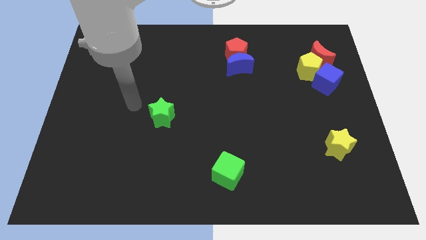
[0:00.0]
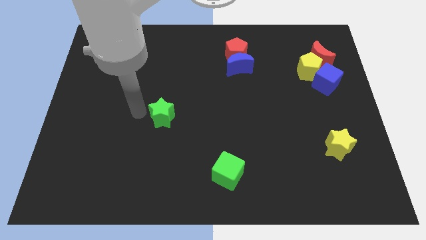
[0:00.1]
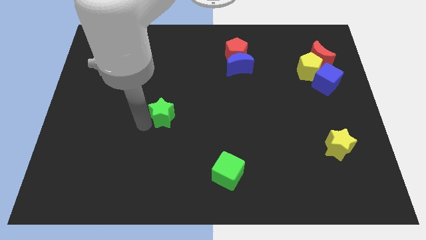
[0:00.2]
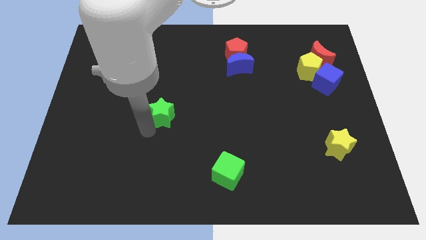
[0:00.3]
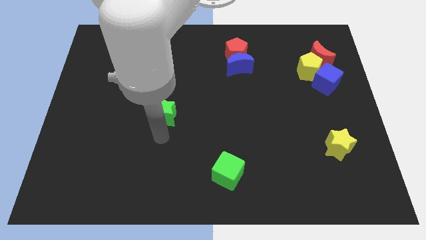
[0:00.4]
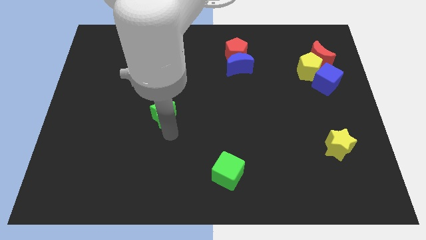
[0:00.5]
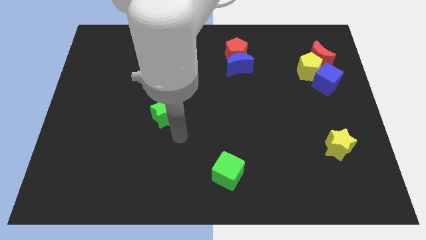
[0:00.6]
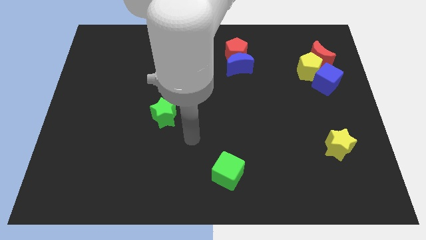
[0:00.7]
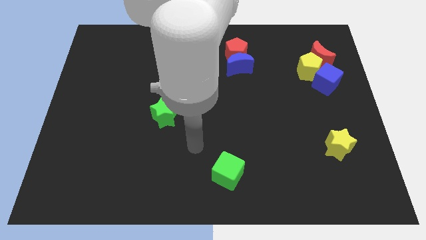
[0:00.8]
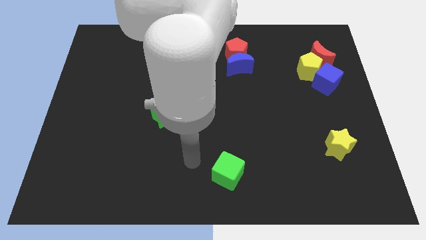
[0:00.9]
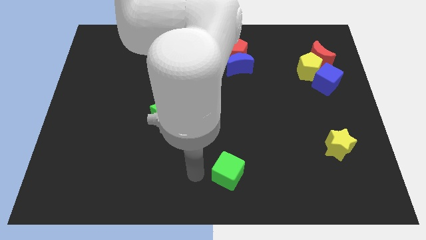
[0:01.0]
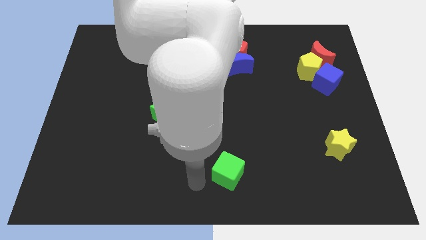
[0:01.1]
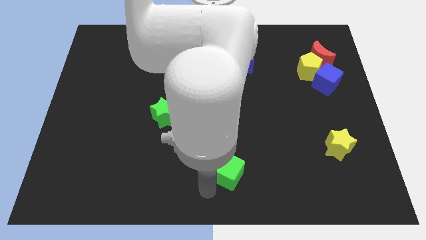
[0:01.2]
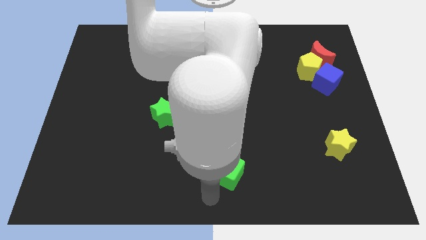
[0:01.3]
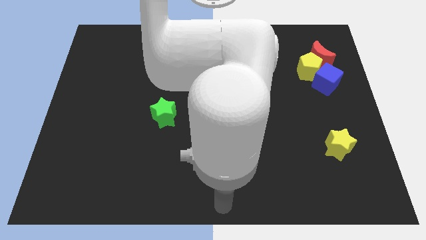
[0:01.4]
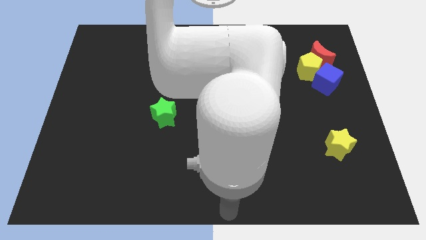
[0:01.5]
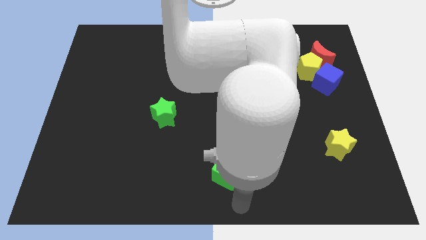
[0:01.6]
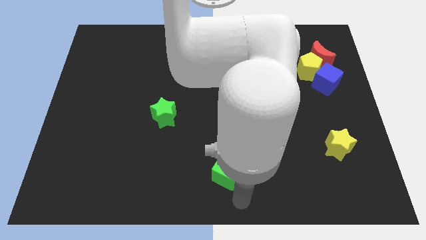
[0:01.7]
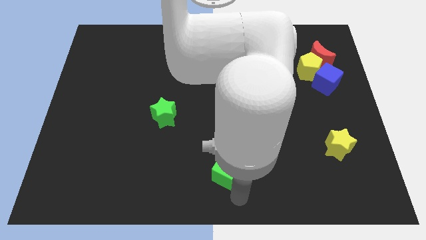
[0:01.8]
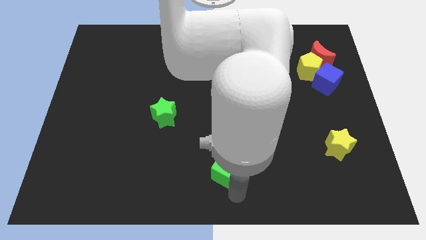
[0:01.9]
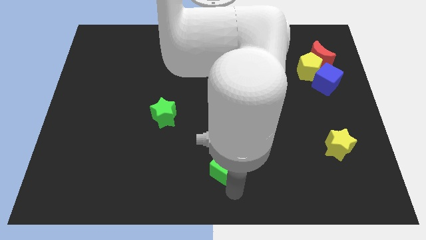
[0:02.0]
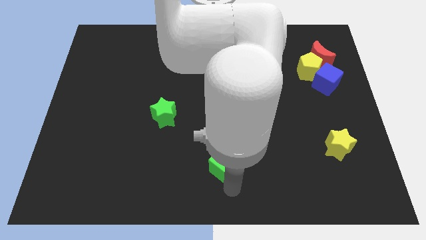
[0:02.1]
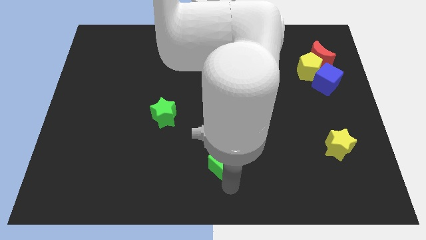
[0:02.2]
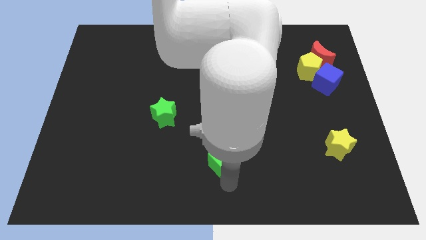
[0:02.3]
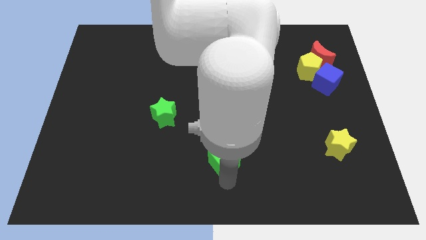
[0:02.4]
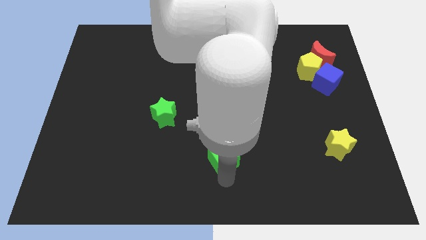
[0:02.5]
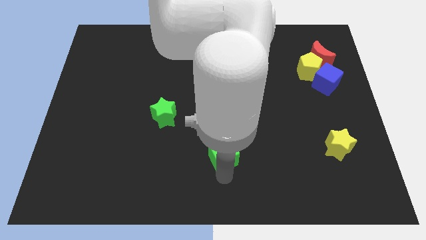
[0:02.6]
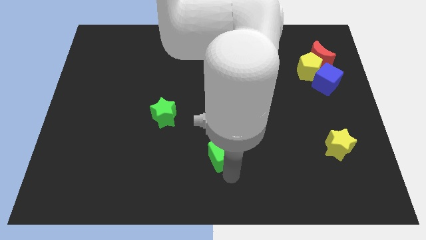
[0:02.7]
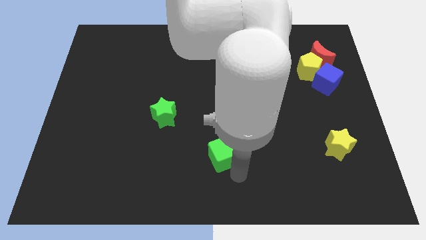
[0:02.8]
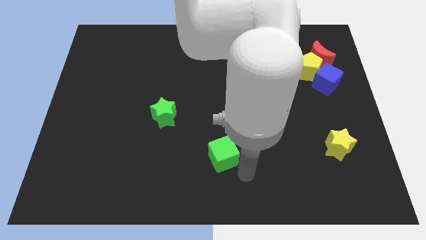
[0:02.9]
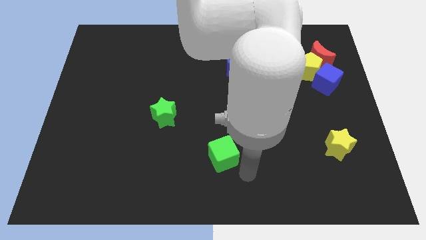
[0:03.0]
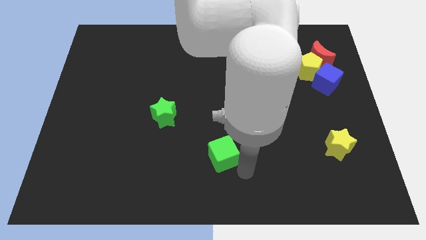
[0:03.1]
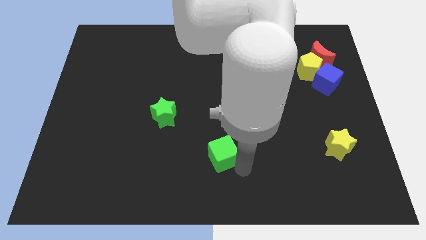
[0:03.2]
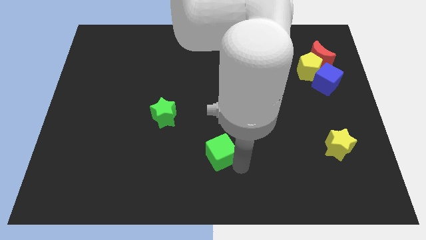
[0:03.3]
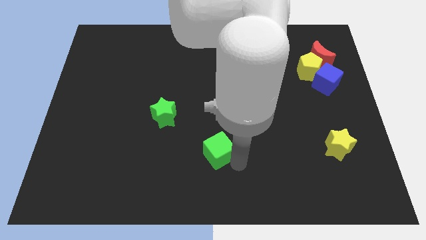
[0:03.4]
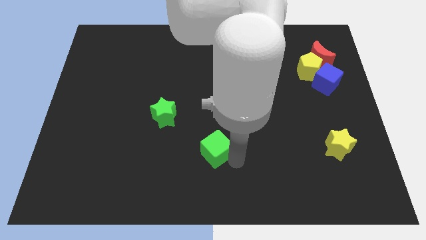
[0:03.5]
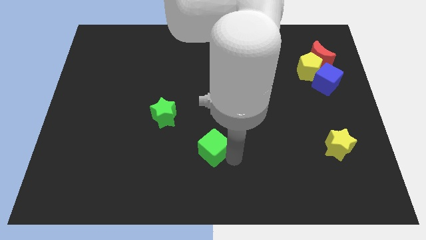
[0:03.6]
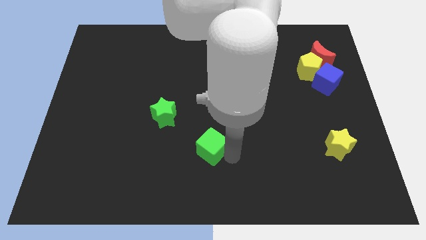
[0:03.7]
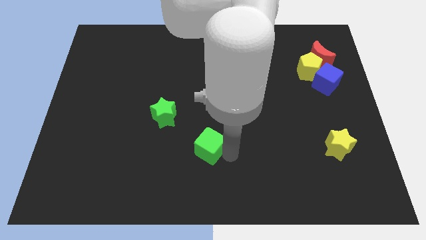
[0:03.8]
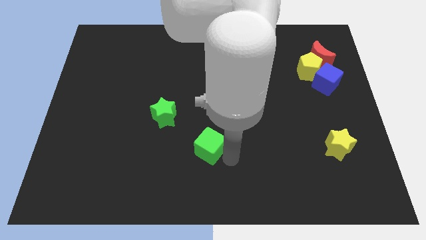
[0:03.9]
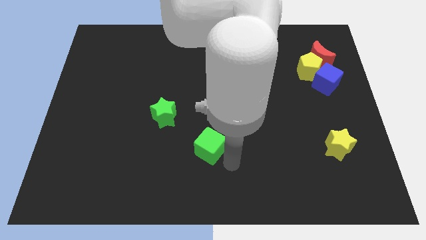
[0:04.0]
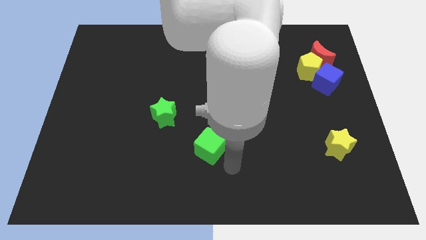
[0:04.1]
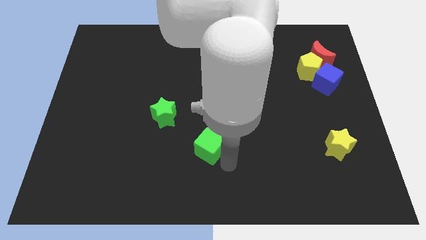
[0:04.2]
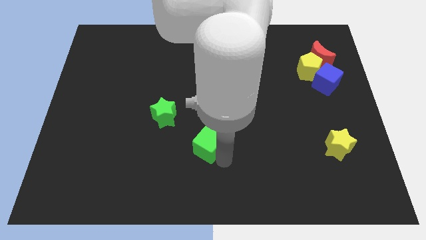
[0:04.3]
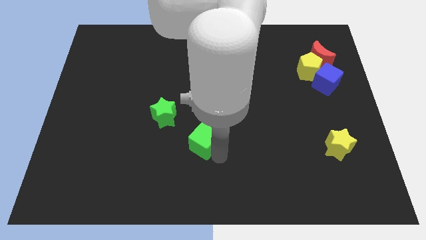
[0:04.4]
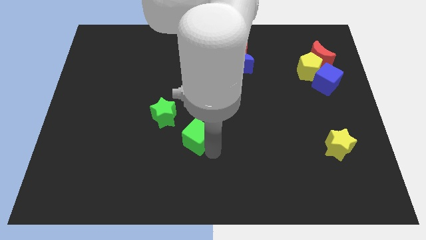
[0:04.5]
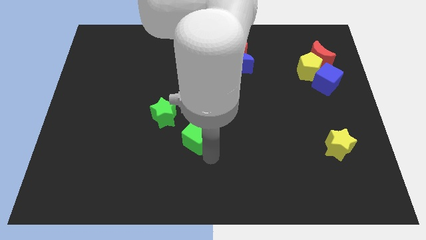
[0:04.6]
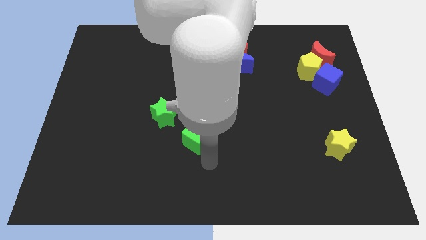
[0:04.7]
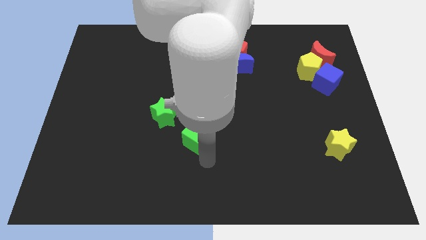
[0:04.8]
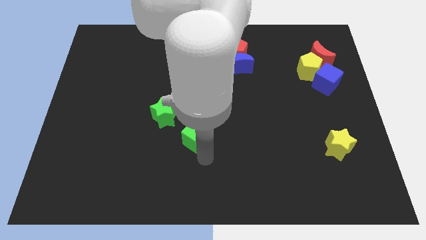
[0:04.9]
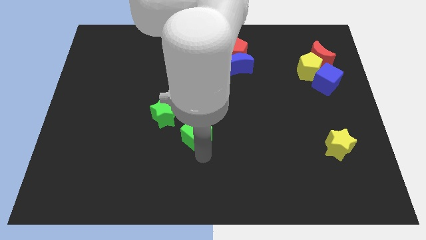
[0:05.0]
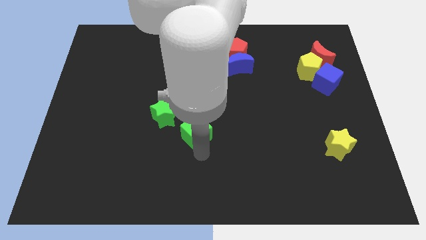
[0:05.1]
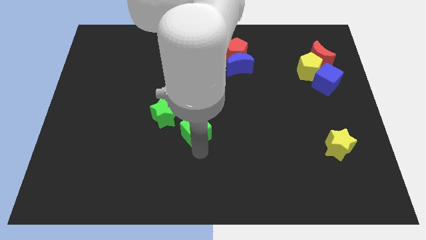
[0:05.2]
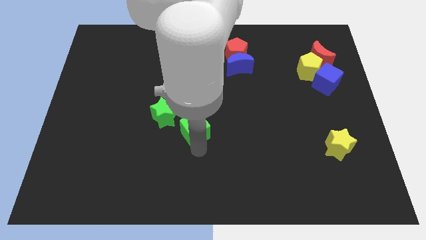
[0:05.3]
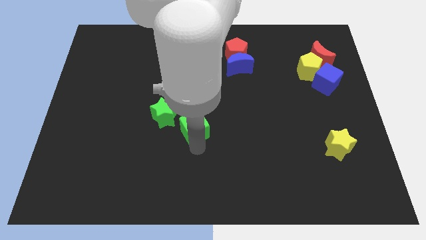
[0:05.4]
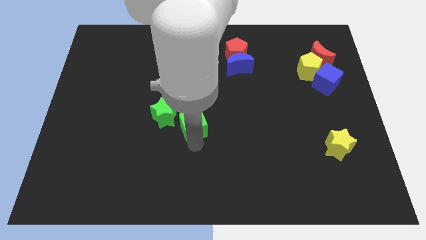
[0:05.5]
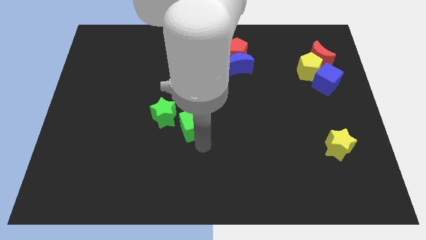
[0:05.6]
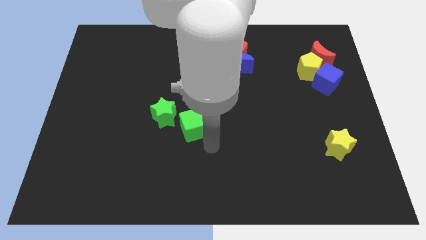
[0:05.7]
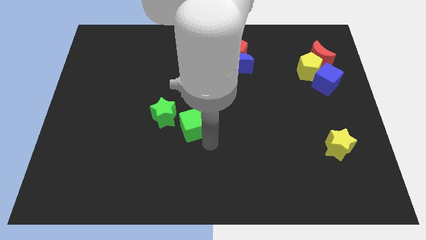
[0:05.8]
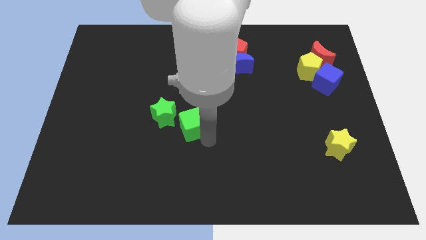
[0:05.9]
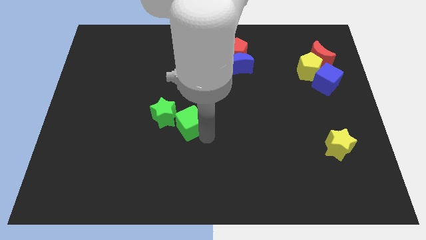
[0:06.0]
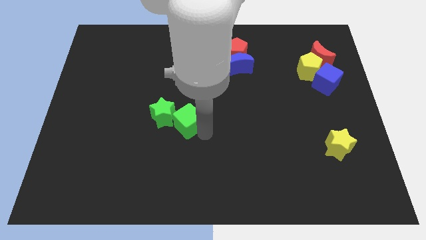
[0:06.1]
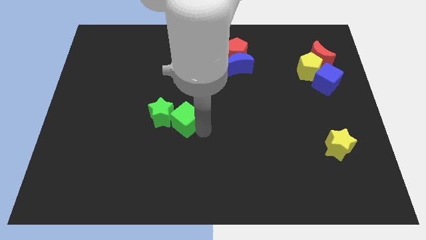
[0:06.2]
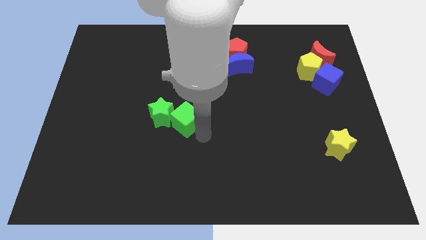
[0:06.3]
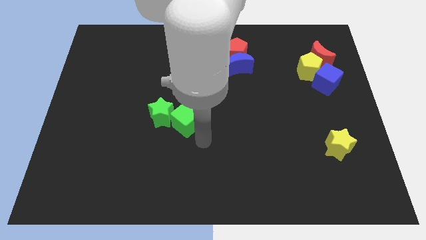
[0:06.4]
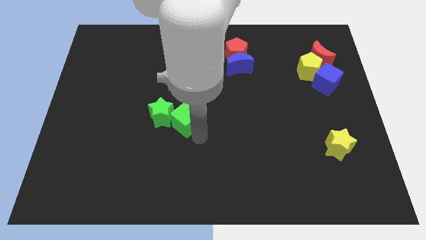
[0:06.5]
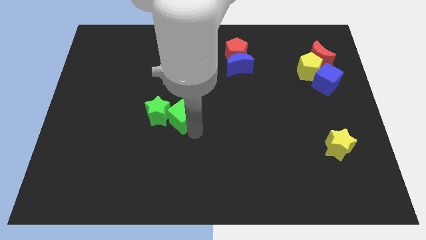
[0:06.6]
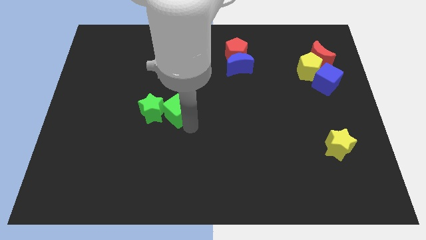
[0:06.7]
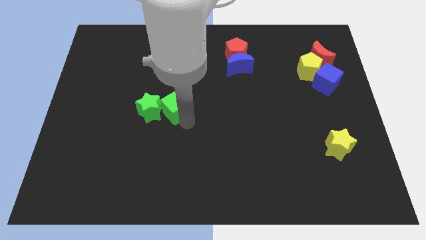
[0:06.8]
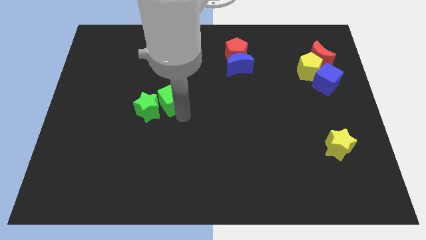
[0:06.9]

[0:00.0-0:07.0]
push the green cube upwards and to the left diagonally

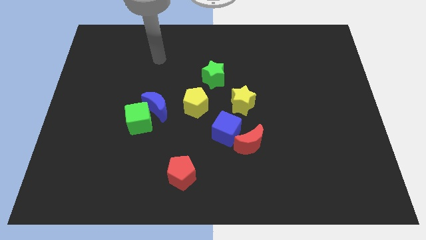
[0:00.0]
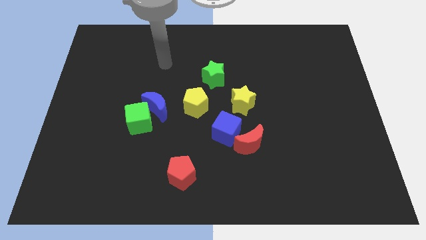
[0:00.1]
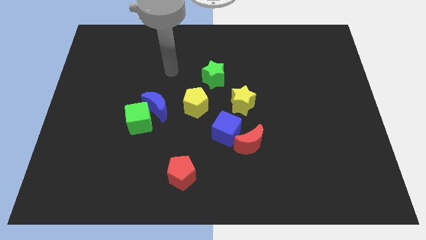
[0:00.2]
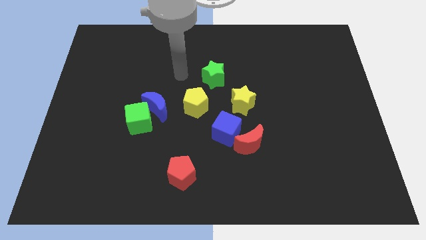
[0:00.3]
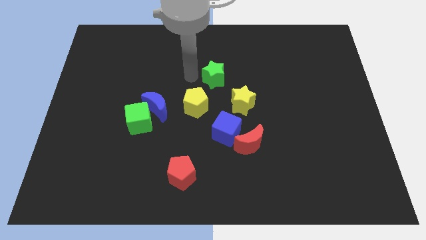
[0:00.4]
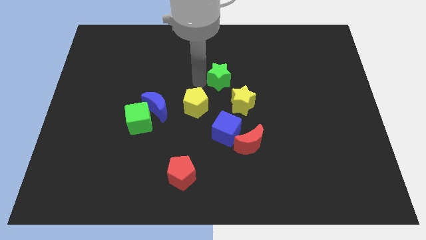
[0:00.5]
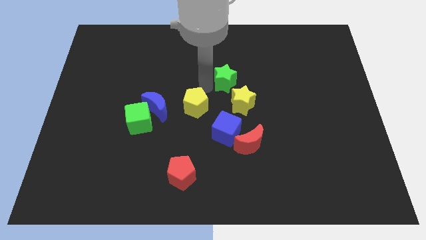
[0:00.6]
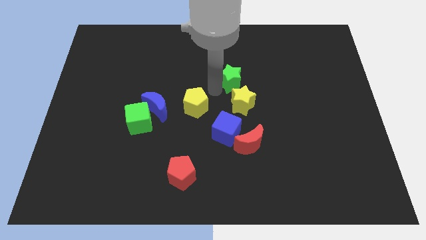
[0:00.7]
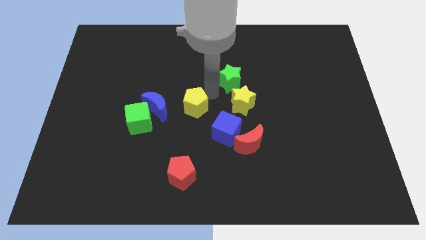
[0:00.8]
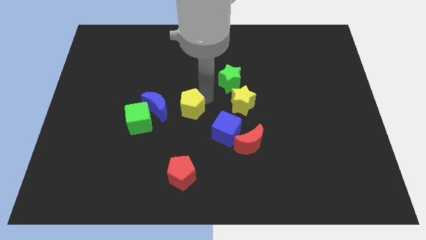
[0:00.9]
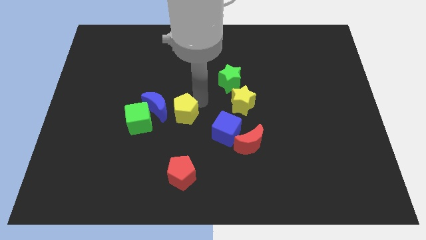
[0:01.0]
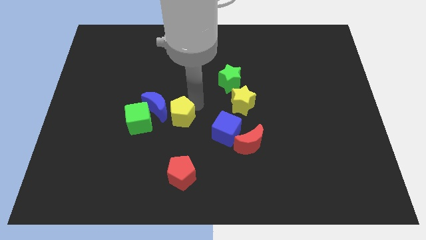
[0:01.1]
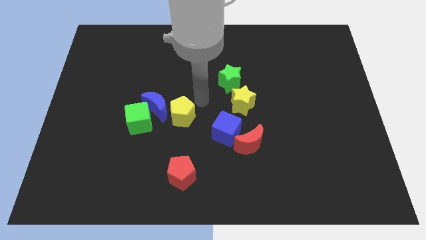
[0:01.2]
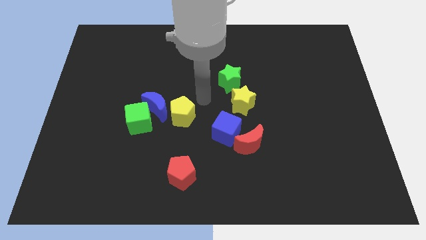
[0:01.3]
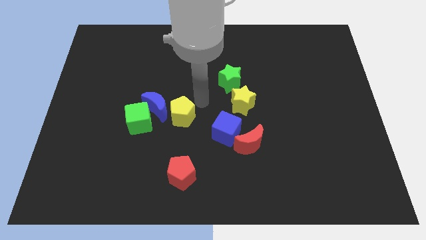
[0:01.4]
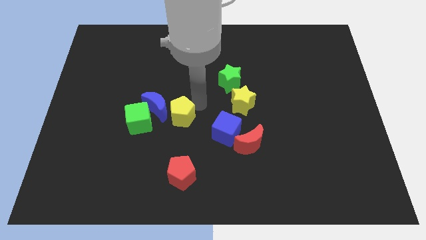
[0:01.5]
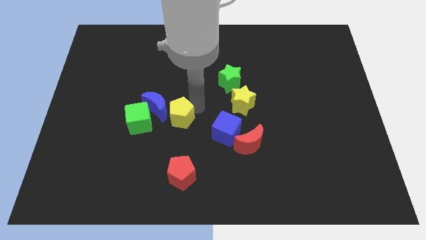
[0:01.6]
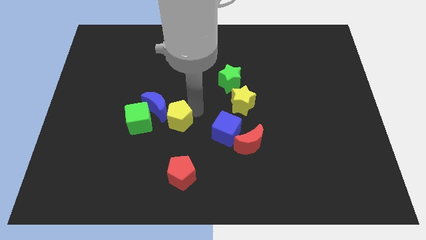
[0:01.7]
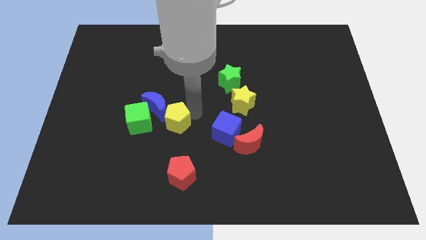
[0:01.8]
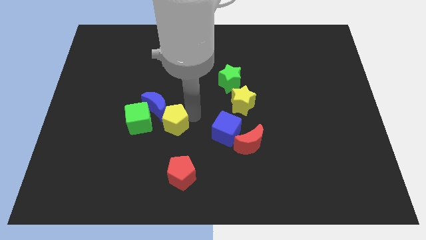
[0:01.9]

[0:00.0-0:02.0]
slightly slide the yellow pentagon down and to the left
